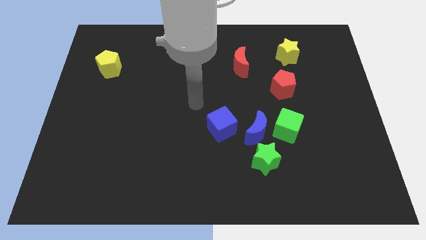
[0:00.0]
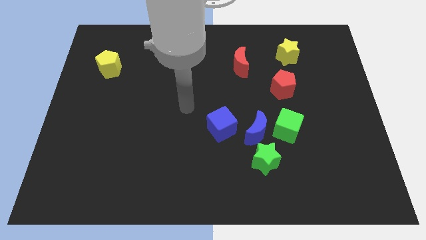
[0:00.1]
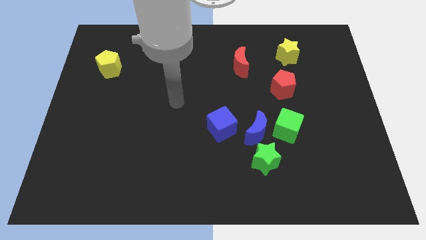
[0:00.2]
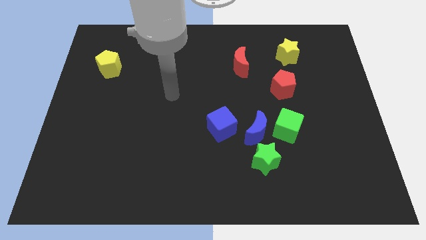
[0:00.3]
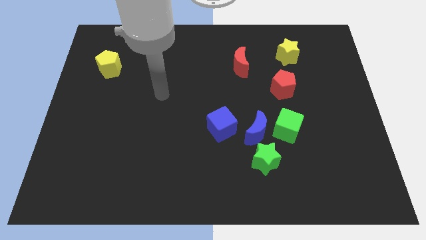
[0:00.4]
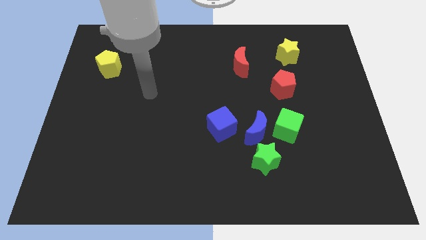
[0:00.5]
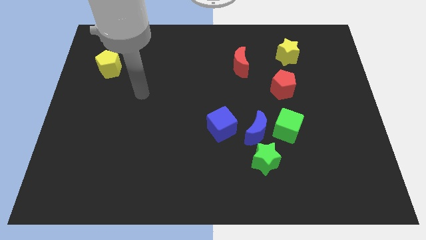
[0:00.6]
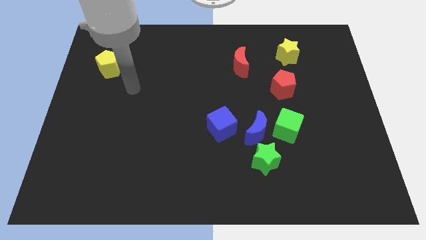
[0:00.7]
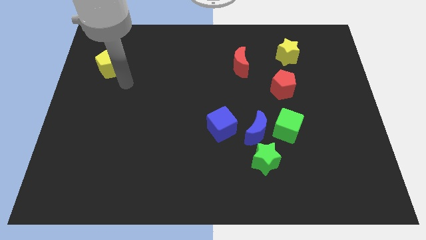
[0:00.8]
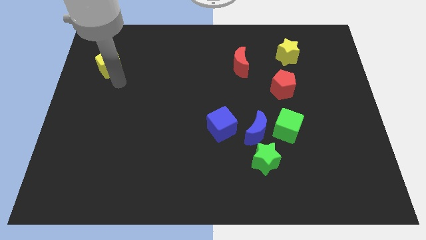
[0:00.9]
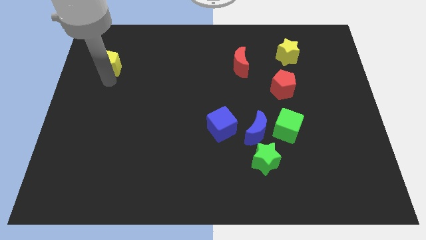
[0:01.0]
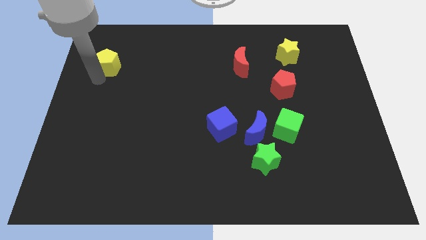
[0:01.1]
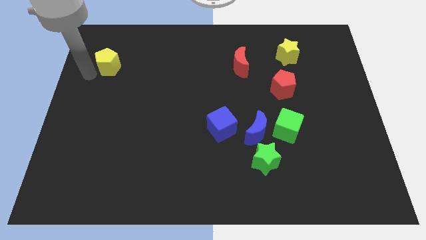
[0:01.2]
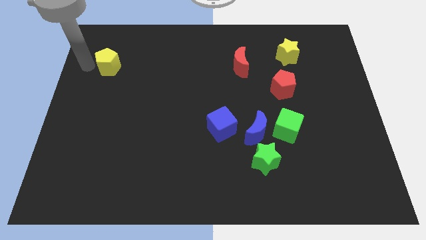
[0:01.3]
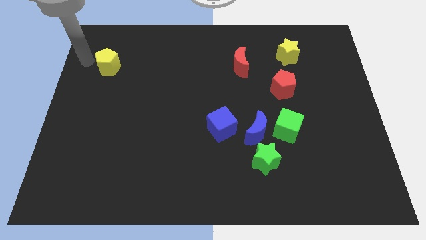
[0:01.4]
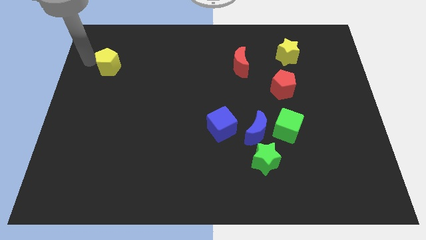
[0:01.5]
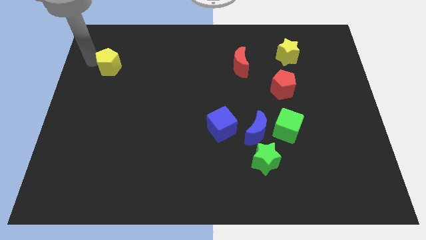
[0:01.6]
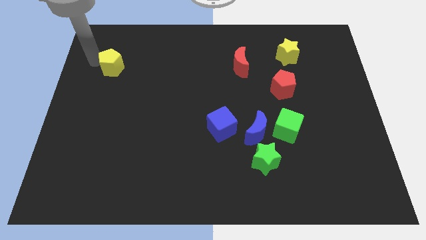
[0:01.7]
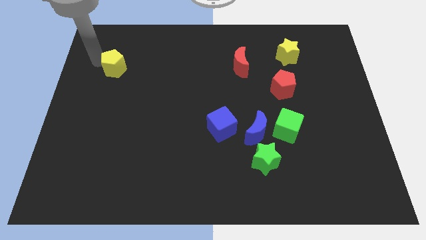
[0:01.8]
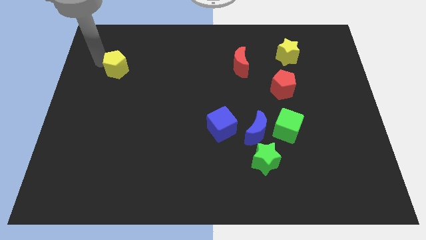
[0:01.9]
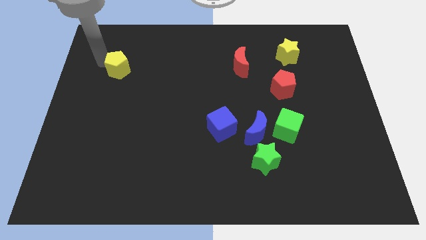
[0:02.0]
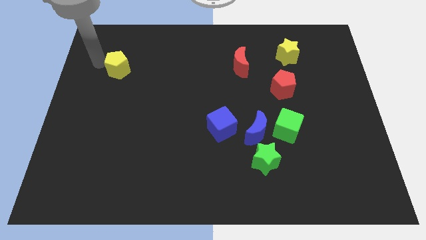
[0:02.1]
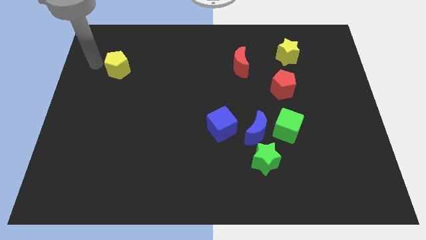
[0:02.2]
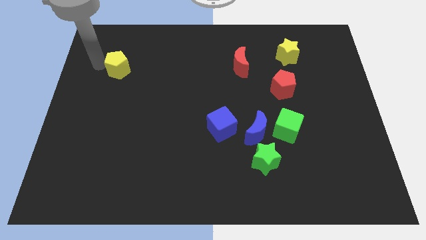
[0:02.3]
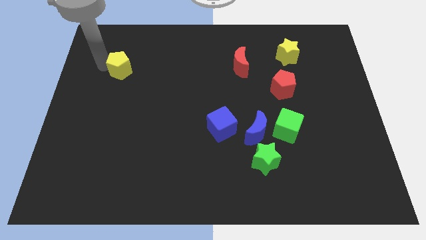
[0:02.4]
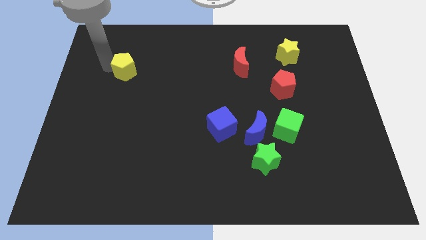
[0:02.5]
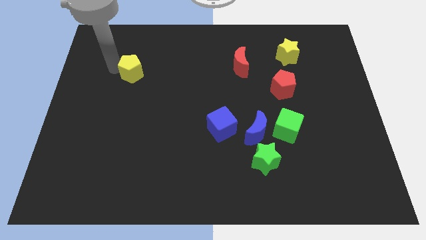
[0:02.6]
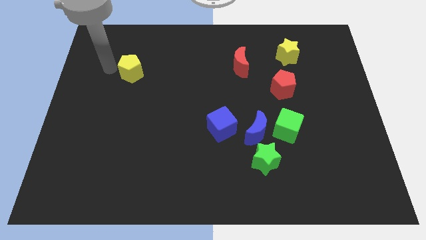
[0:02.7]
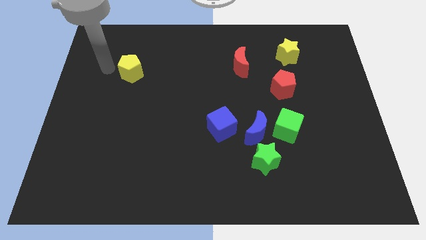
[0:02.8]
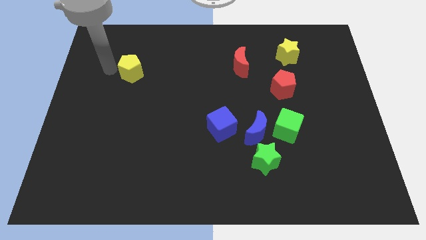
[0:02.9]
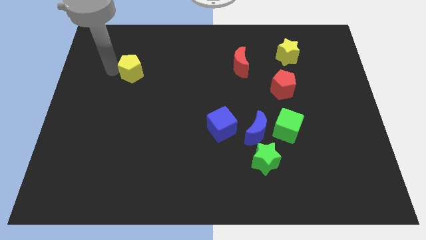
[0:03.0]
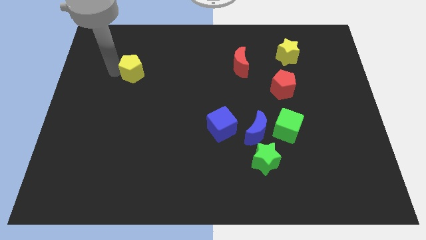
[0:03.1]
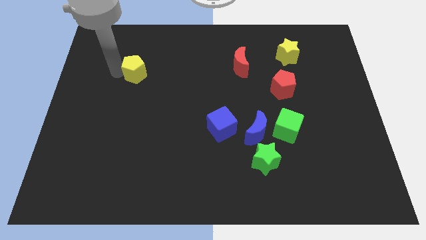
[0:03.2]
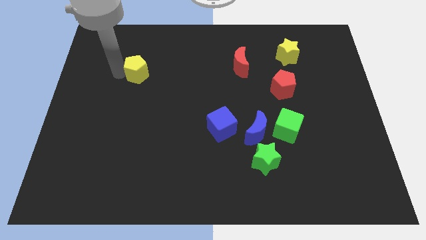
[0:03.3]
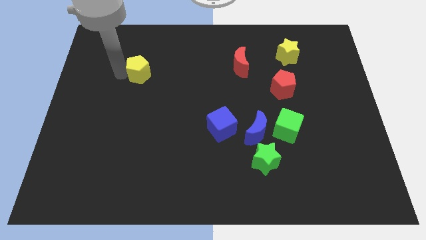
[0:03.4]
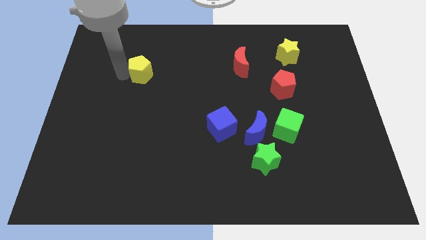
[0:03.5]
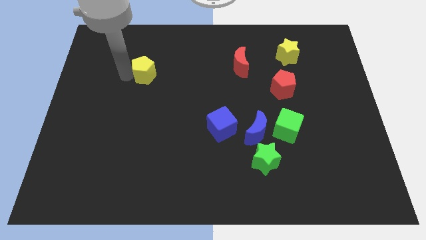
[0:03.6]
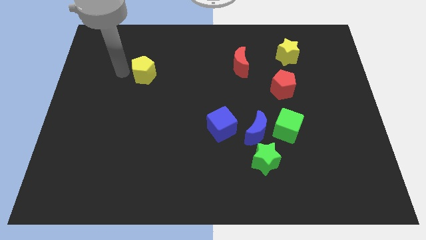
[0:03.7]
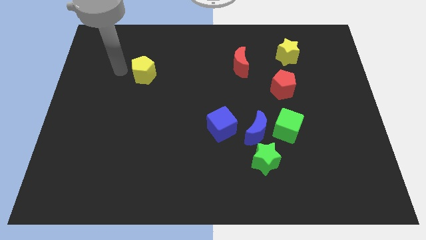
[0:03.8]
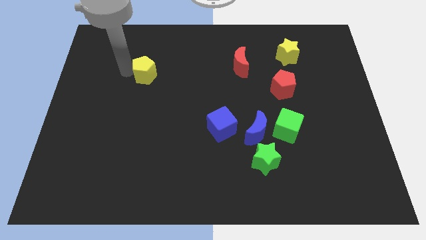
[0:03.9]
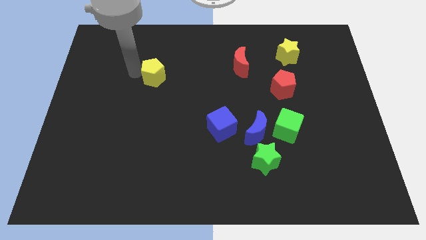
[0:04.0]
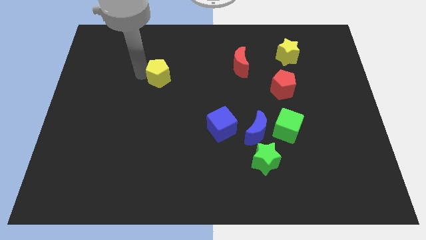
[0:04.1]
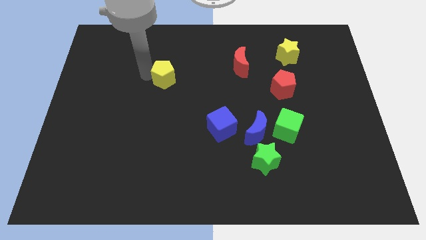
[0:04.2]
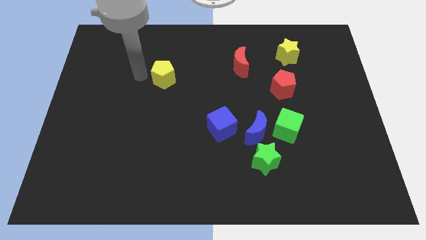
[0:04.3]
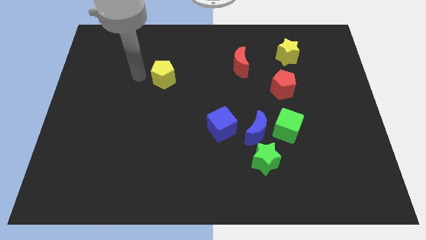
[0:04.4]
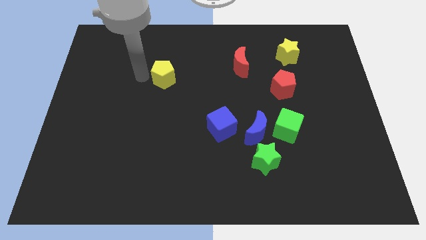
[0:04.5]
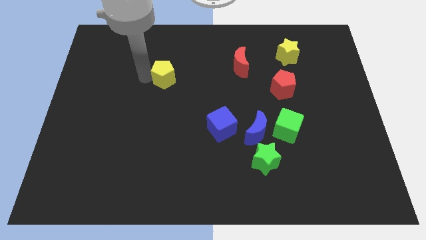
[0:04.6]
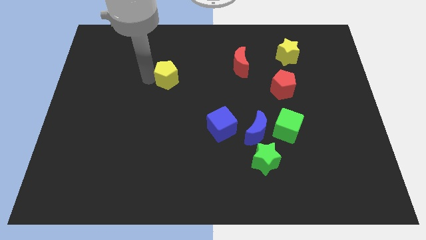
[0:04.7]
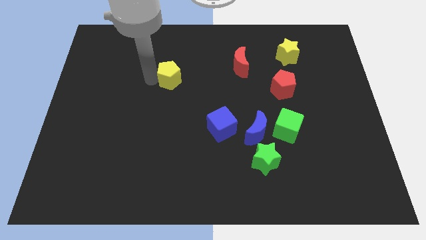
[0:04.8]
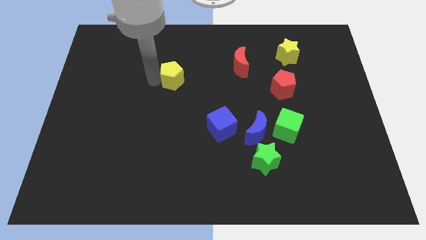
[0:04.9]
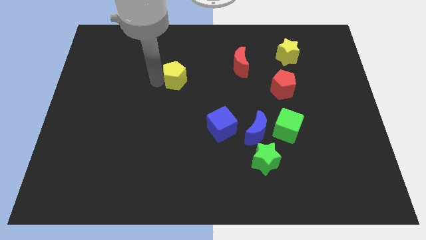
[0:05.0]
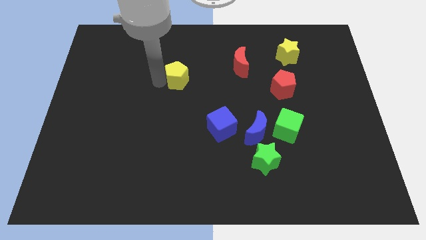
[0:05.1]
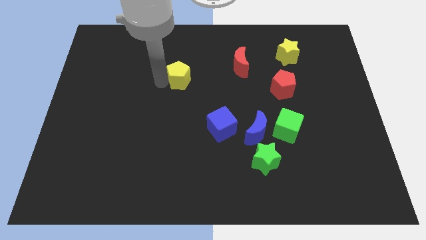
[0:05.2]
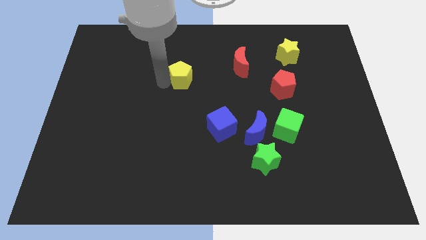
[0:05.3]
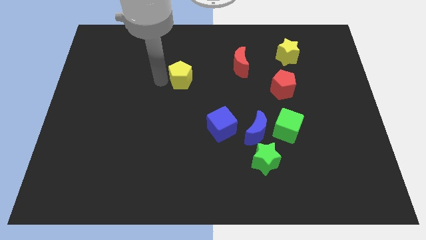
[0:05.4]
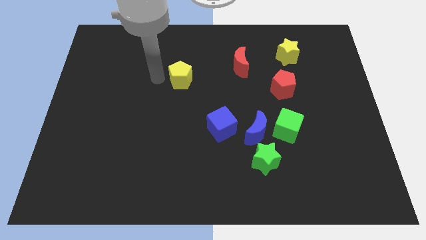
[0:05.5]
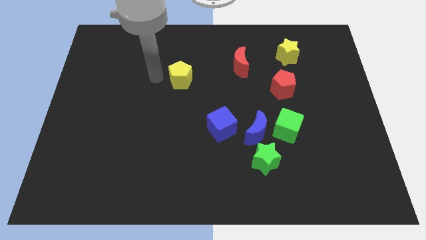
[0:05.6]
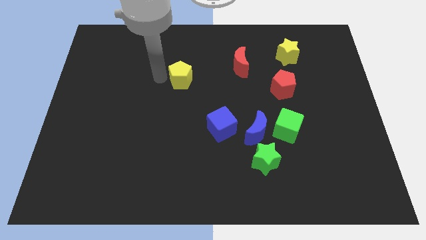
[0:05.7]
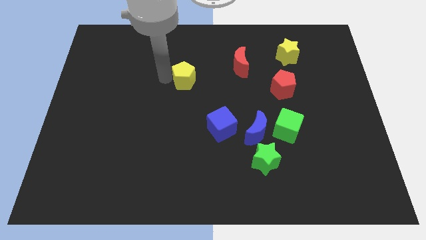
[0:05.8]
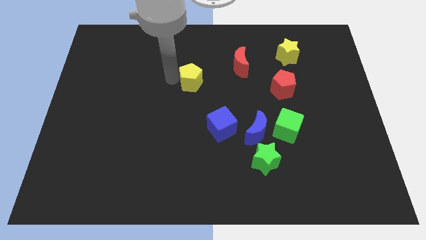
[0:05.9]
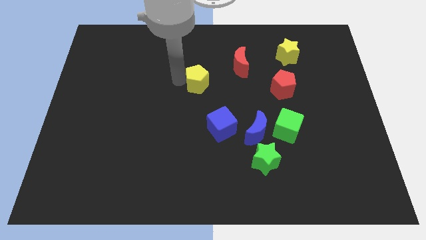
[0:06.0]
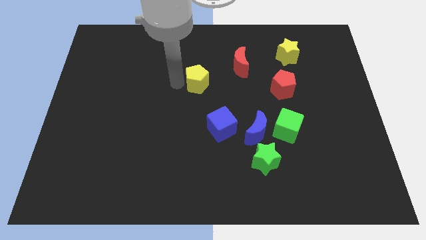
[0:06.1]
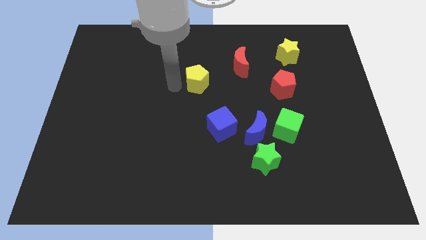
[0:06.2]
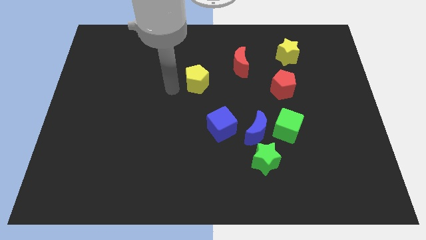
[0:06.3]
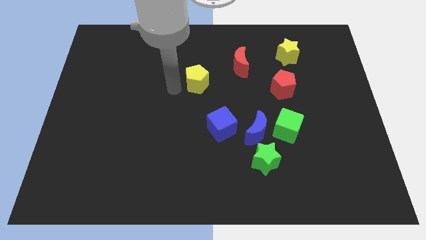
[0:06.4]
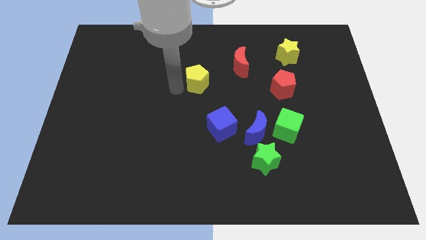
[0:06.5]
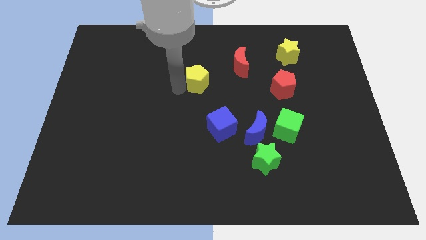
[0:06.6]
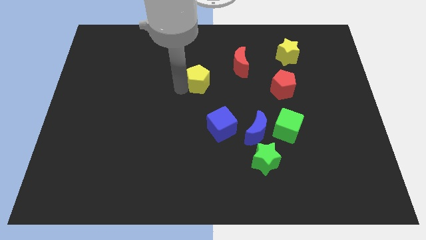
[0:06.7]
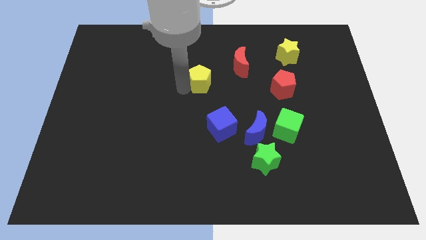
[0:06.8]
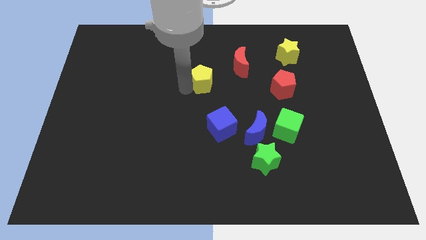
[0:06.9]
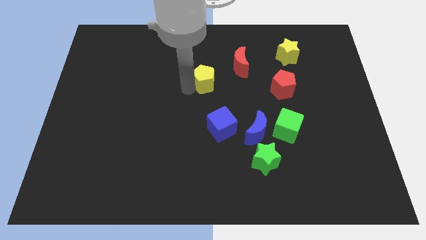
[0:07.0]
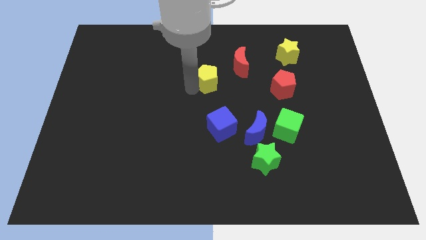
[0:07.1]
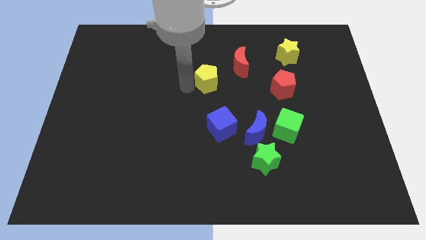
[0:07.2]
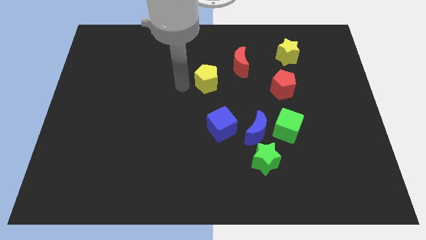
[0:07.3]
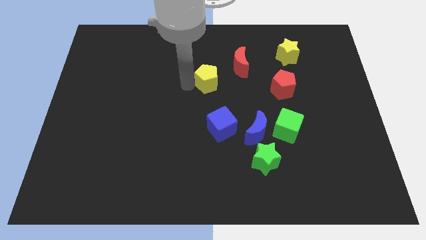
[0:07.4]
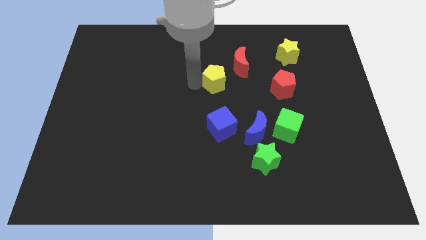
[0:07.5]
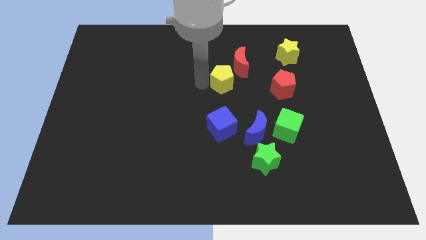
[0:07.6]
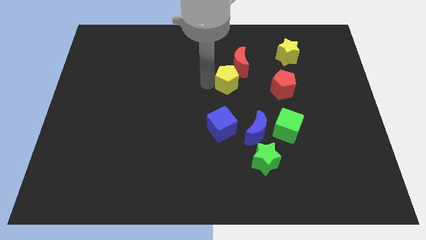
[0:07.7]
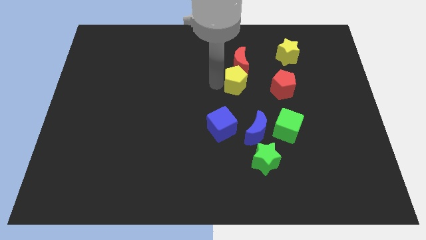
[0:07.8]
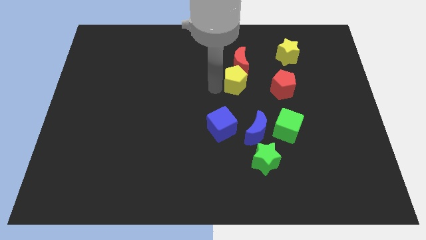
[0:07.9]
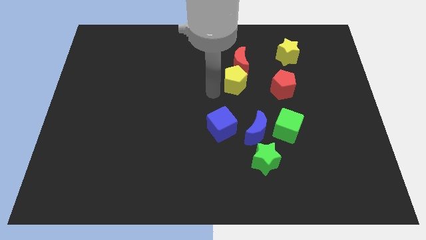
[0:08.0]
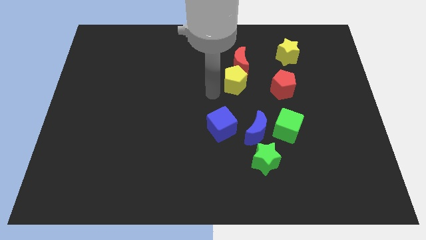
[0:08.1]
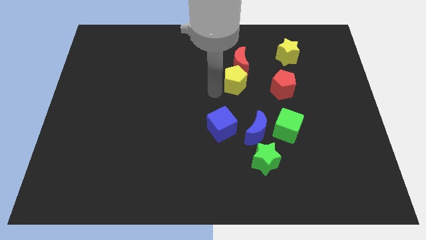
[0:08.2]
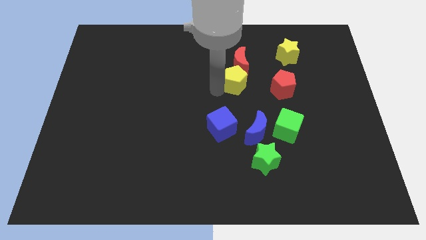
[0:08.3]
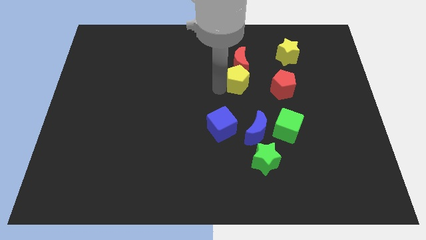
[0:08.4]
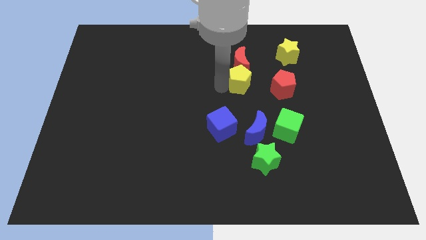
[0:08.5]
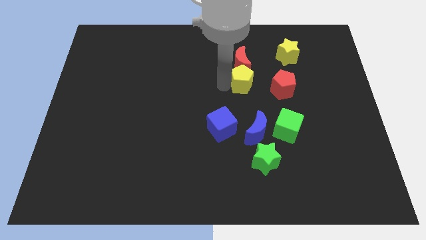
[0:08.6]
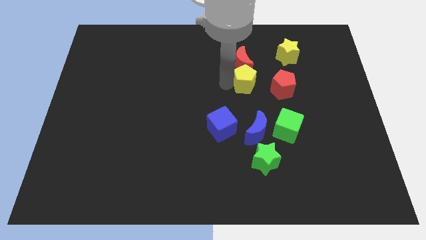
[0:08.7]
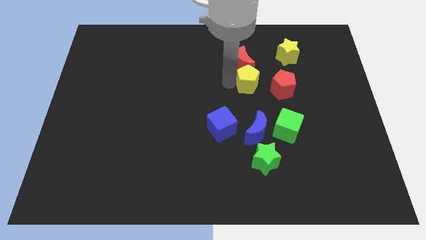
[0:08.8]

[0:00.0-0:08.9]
put the yellow pentagon to the top left side of the red pentagon
